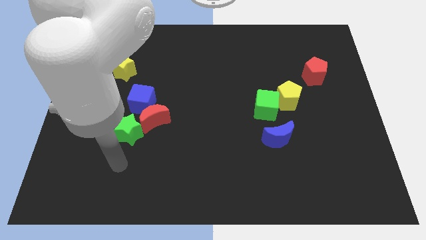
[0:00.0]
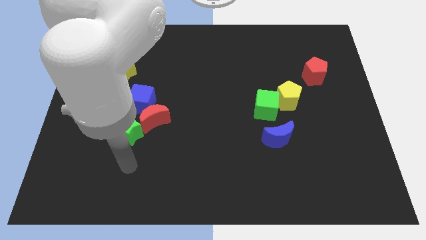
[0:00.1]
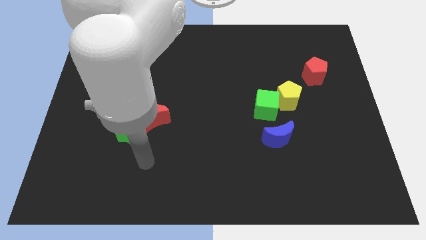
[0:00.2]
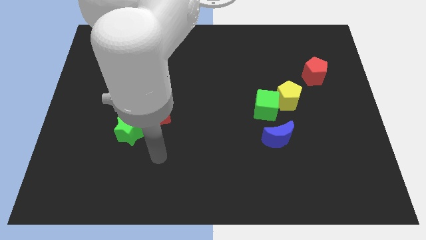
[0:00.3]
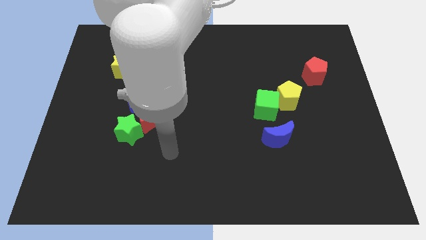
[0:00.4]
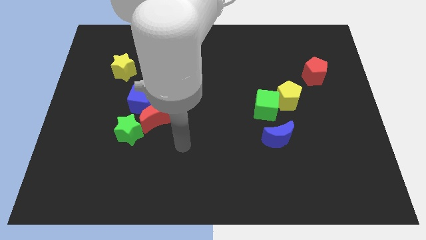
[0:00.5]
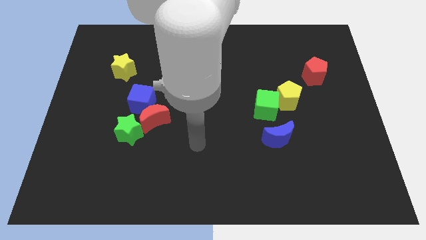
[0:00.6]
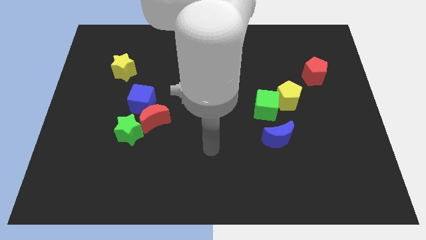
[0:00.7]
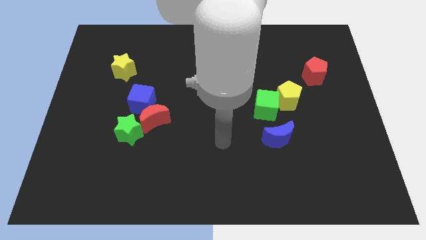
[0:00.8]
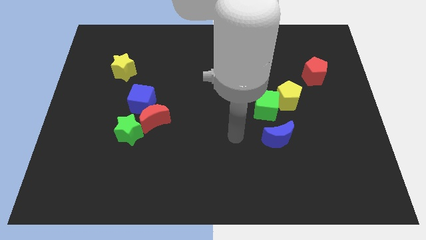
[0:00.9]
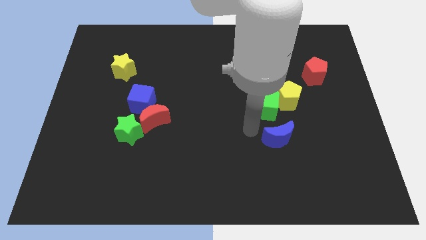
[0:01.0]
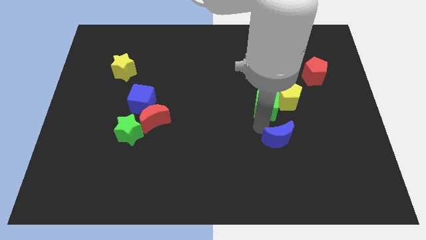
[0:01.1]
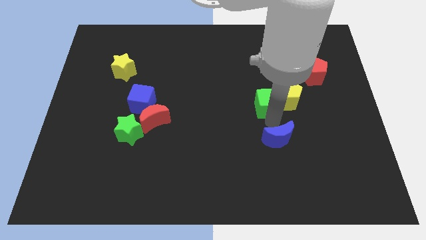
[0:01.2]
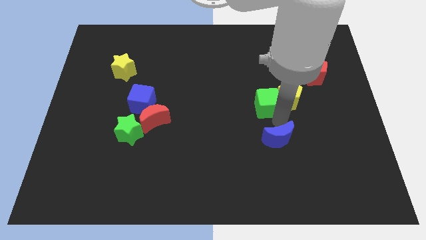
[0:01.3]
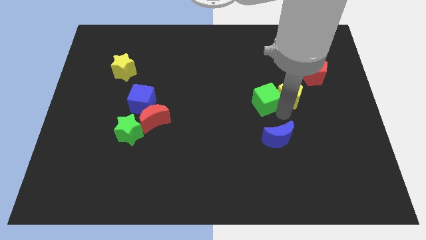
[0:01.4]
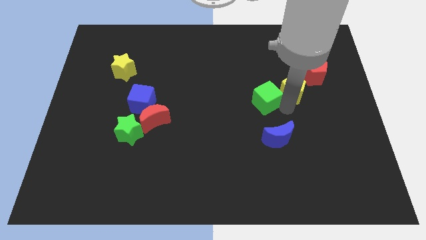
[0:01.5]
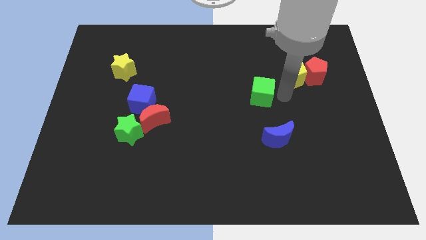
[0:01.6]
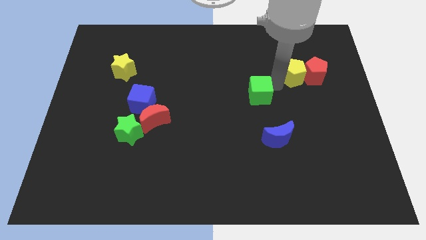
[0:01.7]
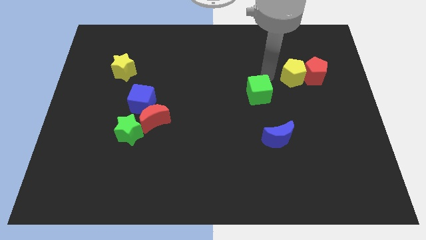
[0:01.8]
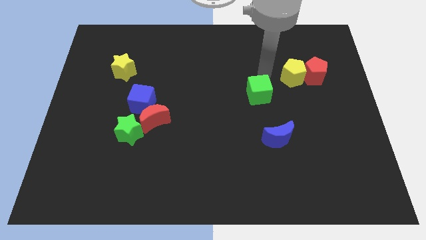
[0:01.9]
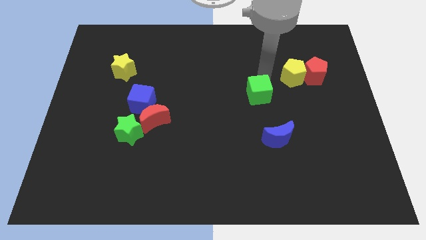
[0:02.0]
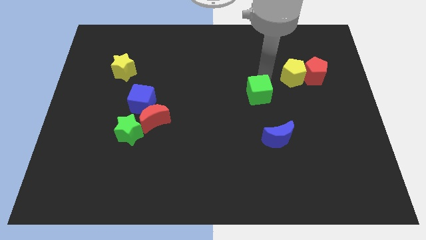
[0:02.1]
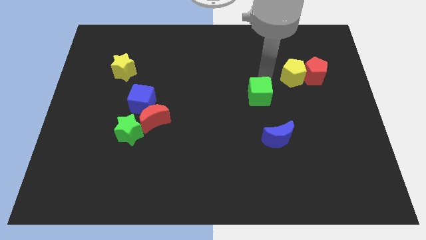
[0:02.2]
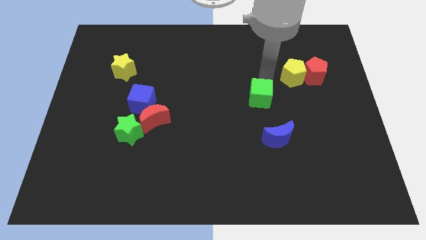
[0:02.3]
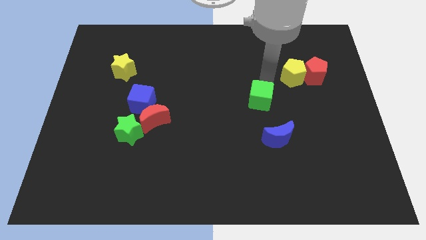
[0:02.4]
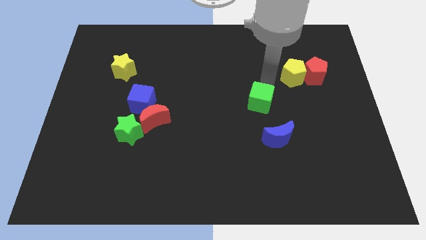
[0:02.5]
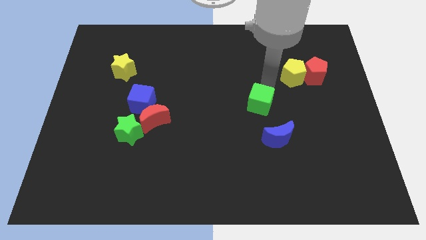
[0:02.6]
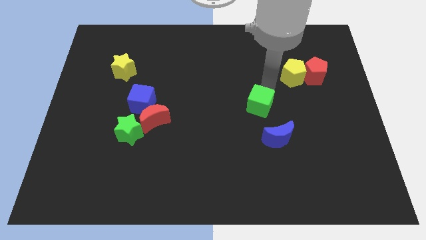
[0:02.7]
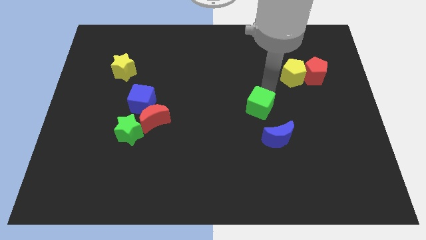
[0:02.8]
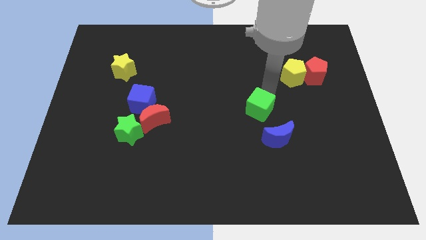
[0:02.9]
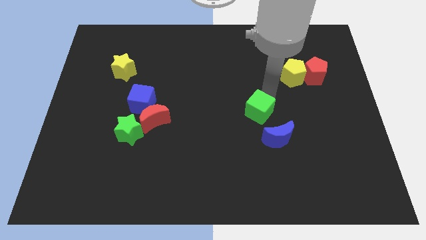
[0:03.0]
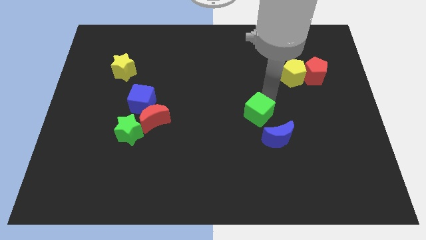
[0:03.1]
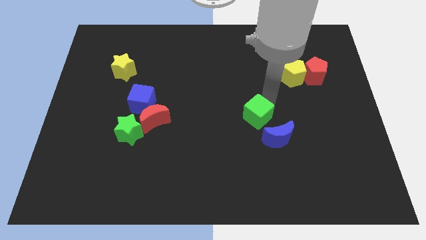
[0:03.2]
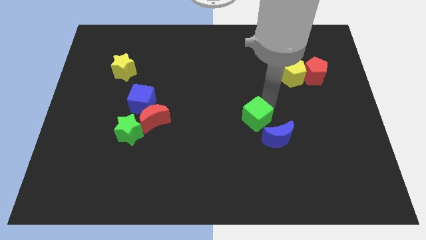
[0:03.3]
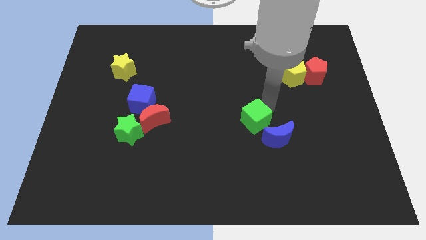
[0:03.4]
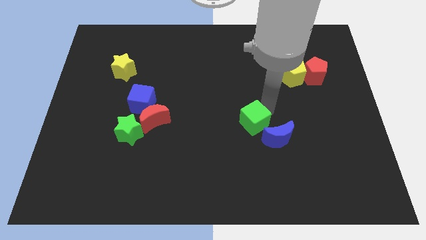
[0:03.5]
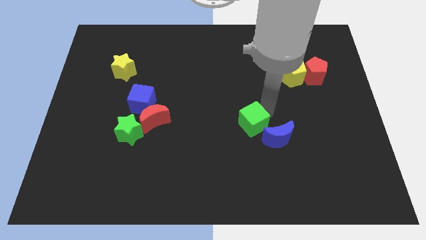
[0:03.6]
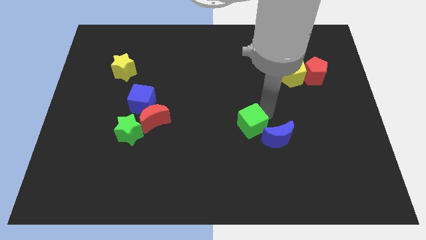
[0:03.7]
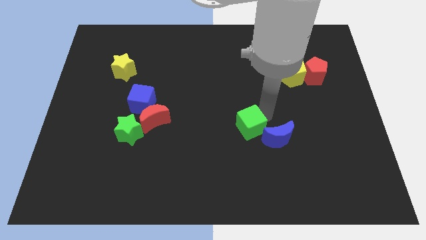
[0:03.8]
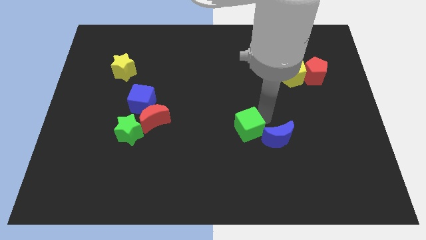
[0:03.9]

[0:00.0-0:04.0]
slightly push the green cube downwards and left

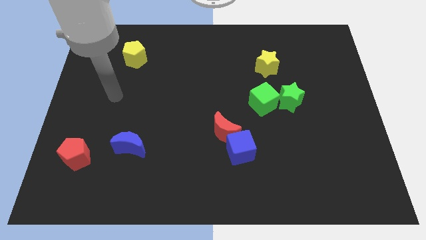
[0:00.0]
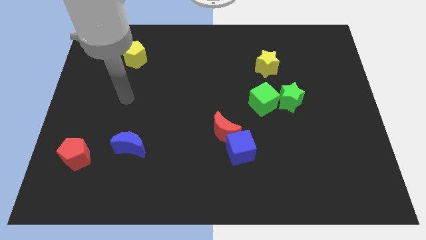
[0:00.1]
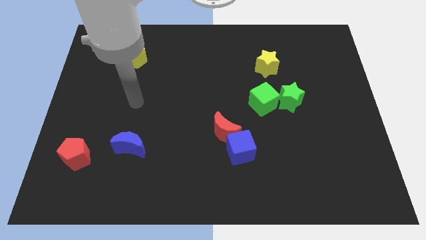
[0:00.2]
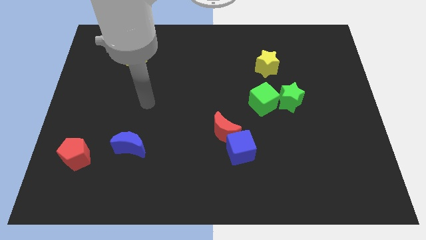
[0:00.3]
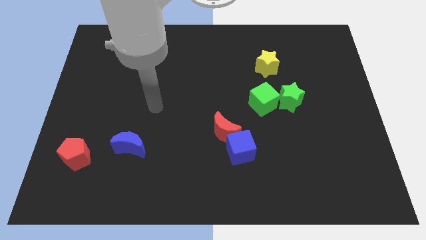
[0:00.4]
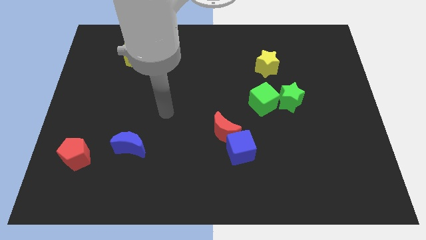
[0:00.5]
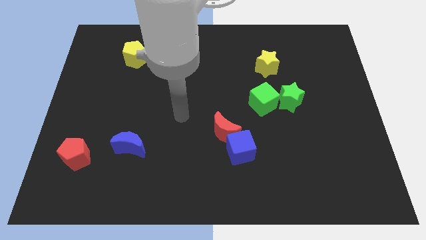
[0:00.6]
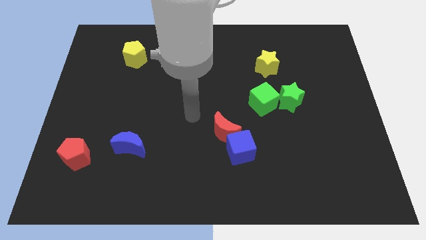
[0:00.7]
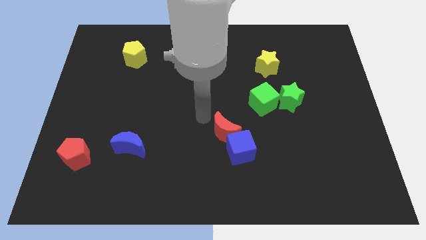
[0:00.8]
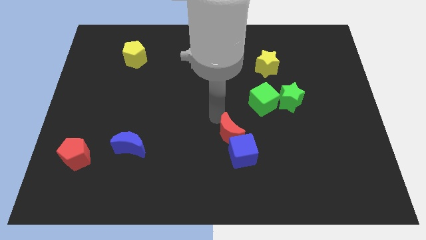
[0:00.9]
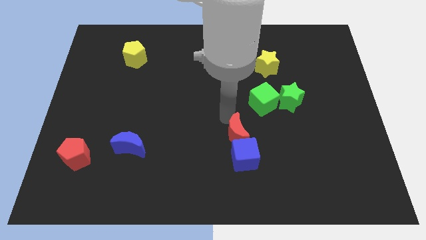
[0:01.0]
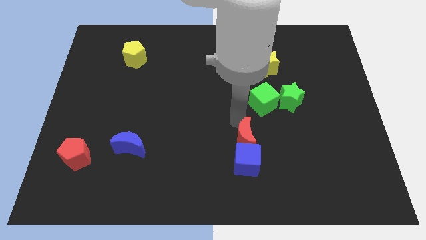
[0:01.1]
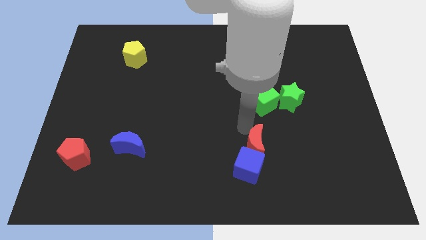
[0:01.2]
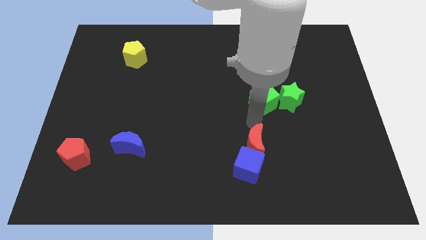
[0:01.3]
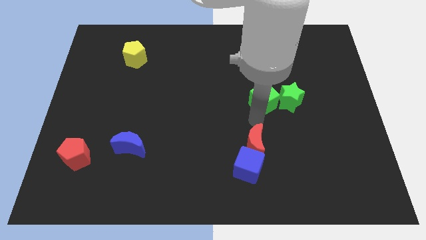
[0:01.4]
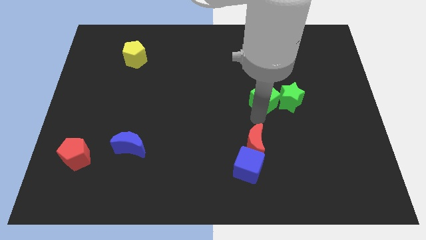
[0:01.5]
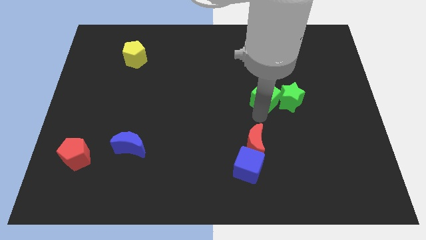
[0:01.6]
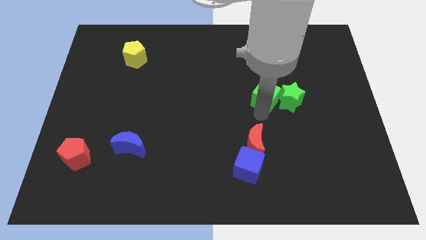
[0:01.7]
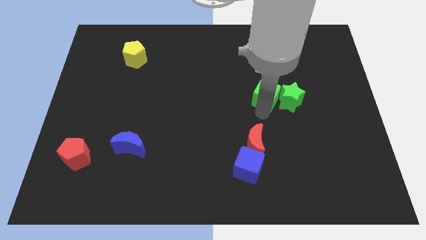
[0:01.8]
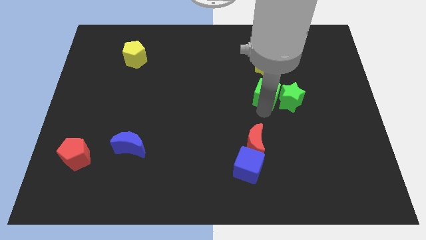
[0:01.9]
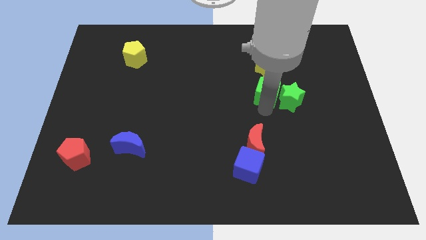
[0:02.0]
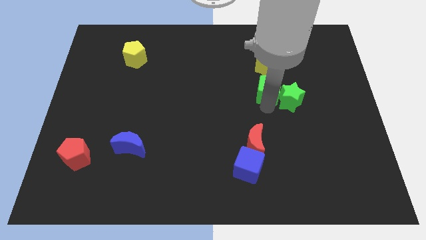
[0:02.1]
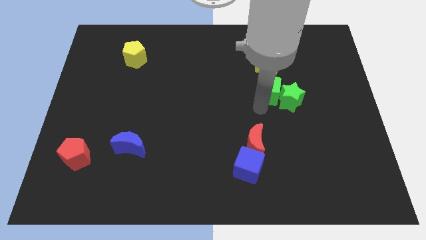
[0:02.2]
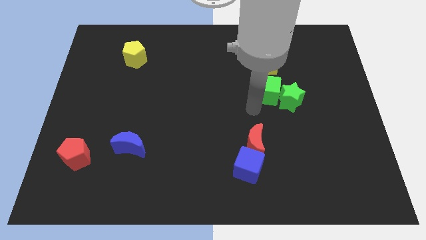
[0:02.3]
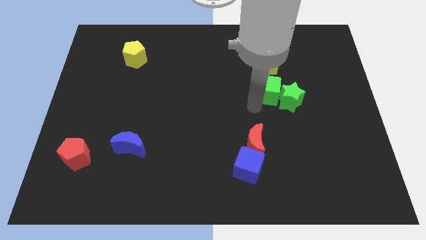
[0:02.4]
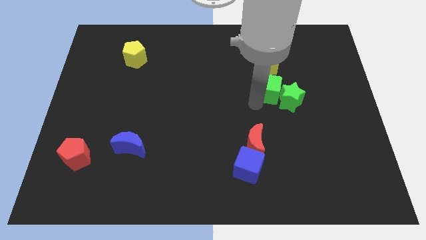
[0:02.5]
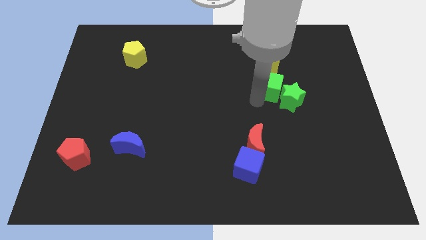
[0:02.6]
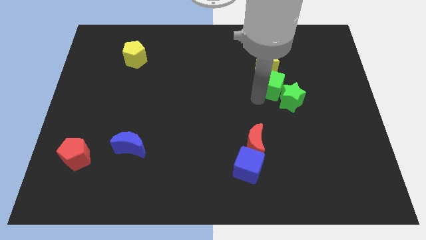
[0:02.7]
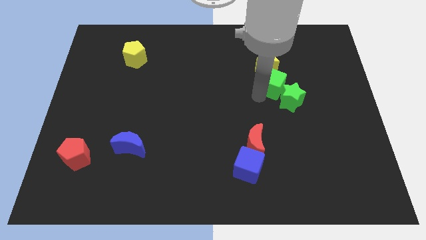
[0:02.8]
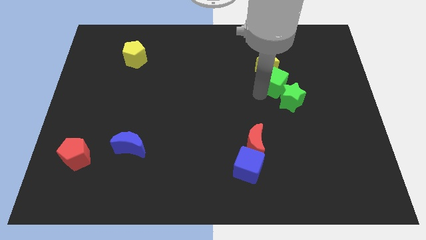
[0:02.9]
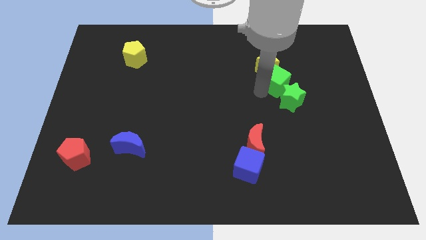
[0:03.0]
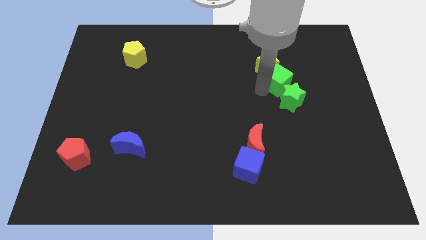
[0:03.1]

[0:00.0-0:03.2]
slightly push the green cube upwards and to the right diagonally

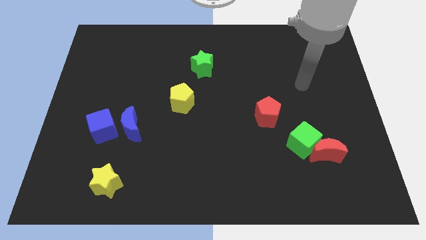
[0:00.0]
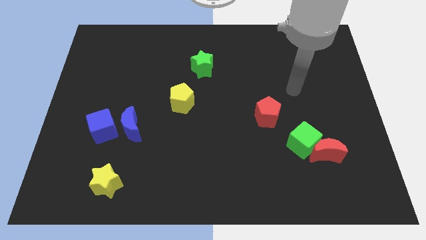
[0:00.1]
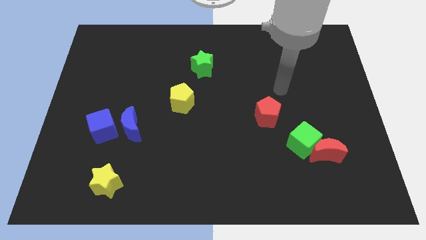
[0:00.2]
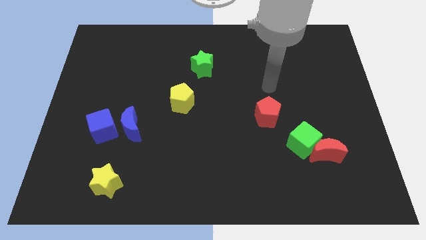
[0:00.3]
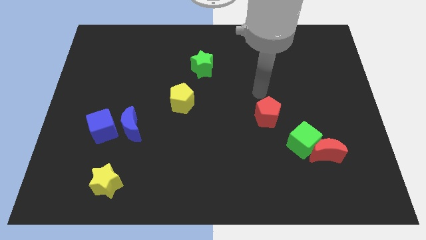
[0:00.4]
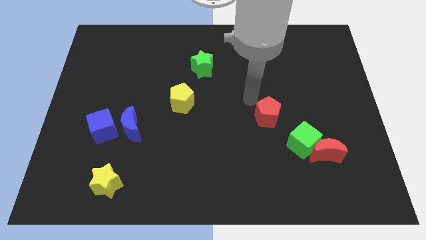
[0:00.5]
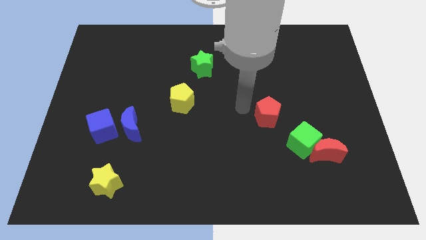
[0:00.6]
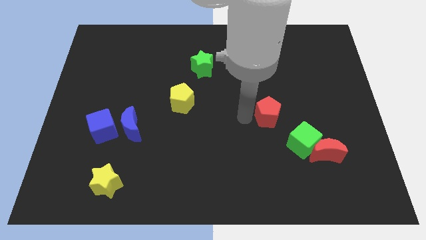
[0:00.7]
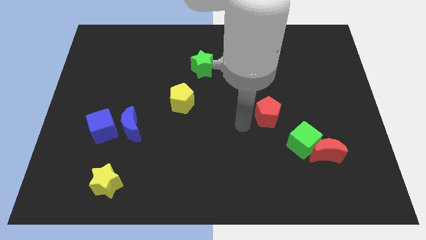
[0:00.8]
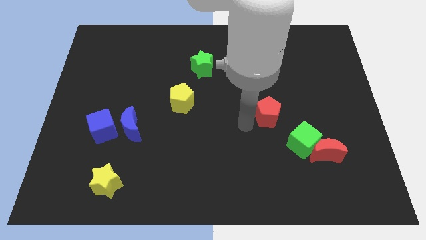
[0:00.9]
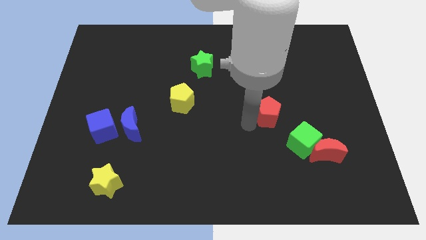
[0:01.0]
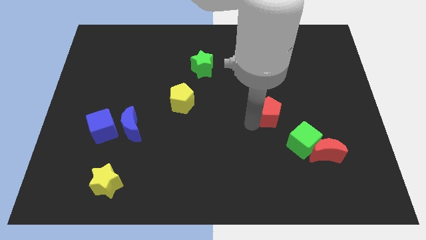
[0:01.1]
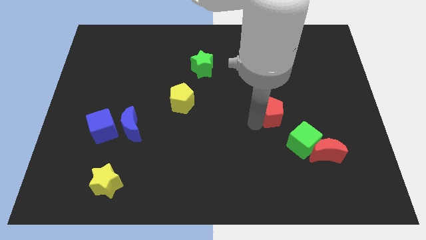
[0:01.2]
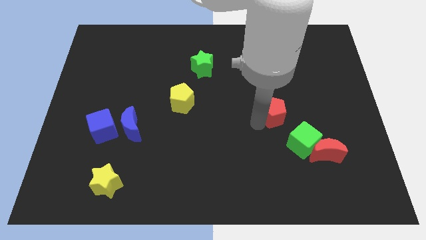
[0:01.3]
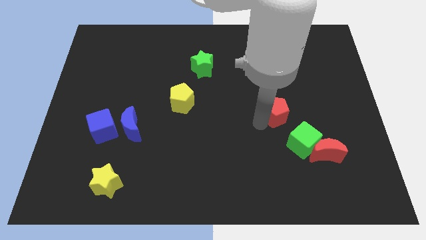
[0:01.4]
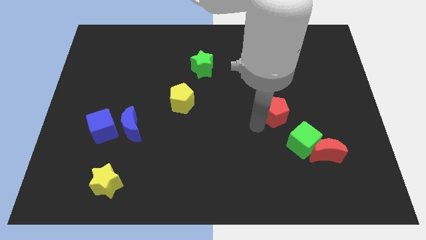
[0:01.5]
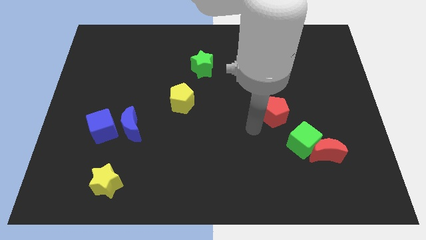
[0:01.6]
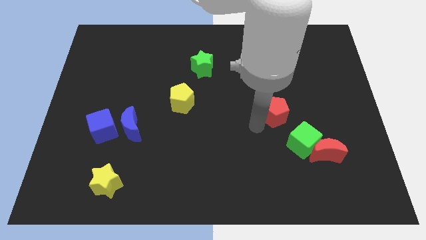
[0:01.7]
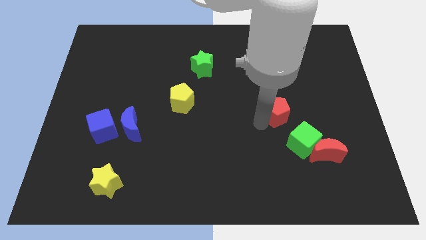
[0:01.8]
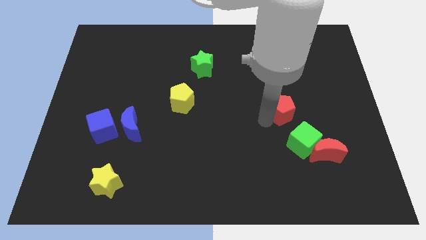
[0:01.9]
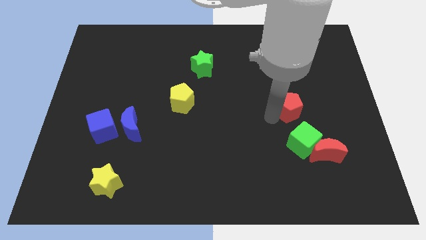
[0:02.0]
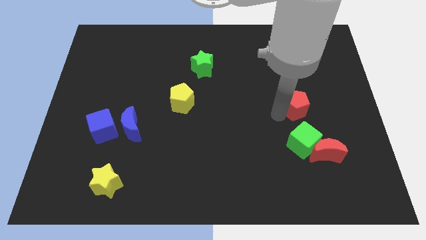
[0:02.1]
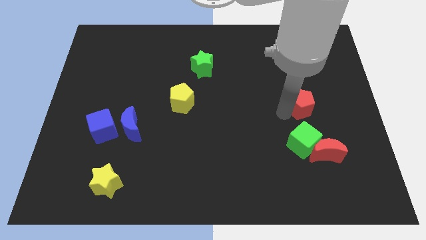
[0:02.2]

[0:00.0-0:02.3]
push the red pentagon upwards and right diagonally a little
